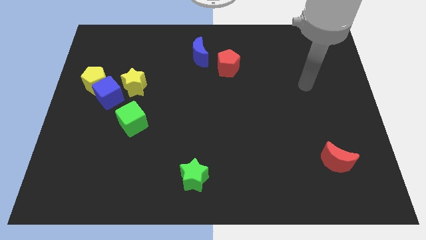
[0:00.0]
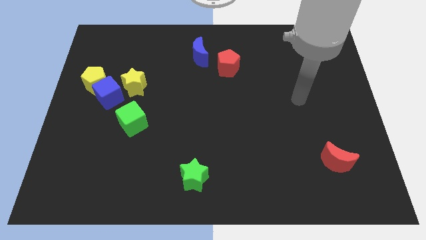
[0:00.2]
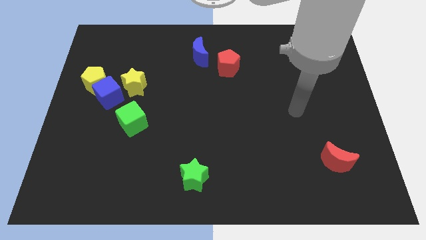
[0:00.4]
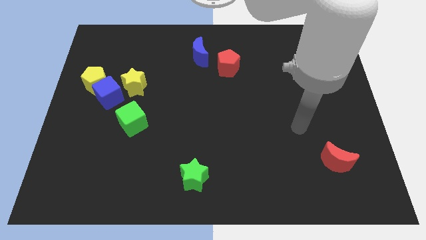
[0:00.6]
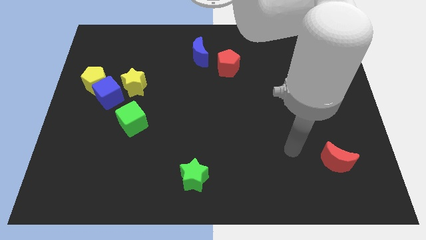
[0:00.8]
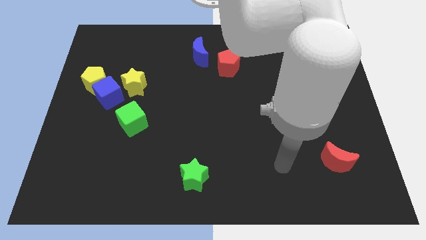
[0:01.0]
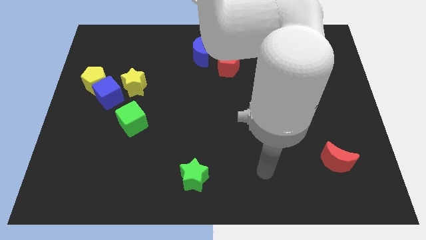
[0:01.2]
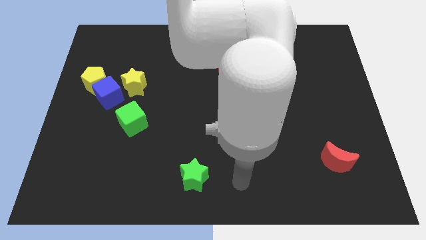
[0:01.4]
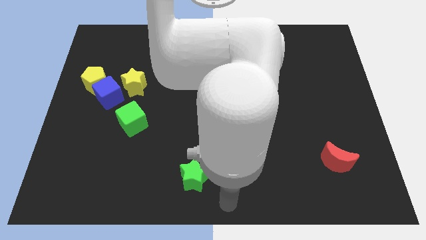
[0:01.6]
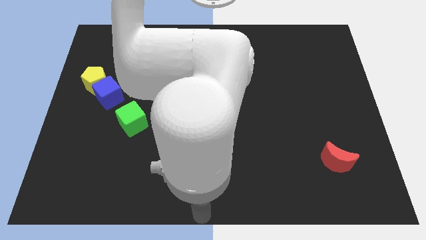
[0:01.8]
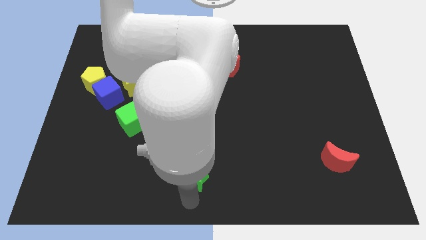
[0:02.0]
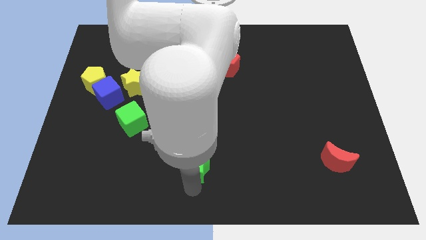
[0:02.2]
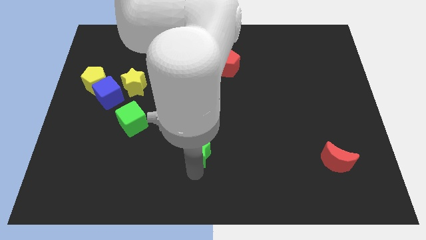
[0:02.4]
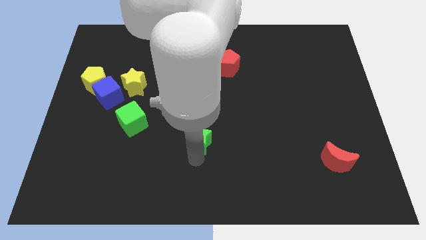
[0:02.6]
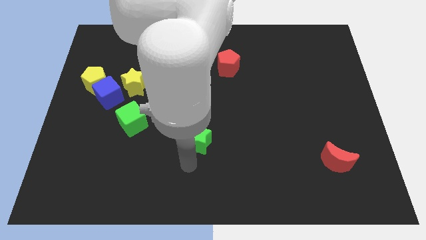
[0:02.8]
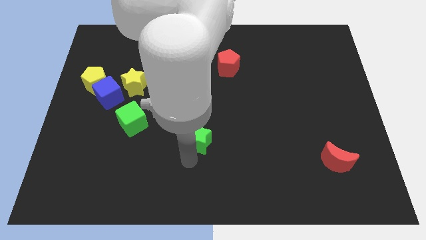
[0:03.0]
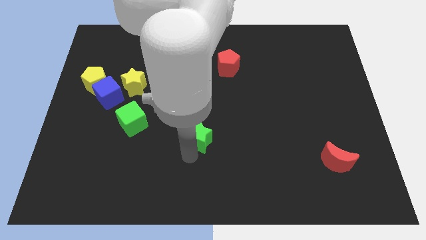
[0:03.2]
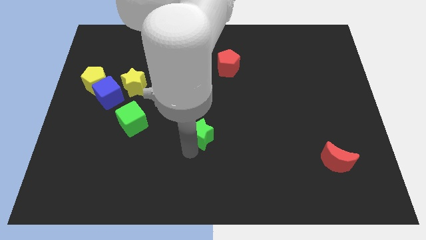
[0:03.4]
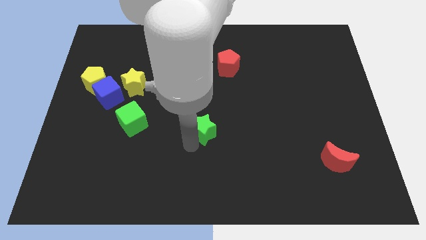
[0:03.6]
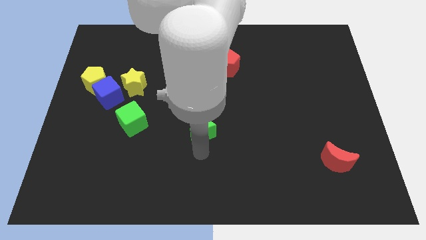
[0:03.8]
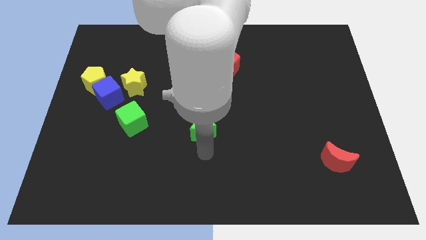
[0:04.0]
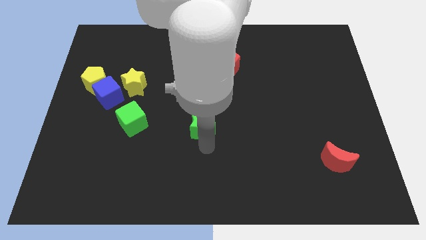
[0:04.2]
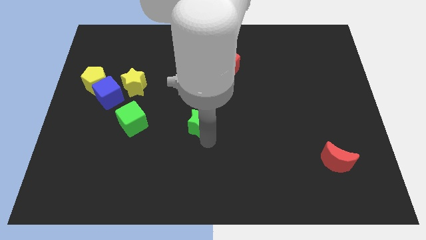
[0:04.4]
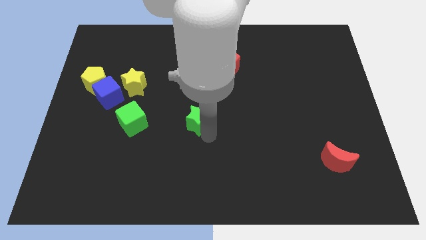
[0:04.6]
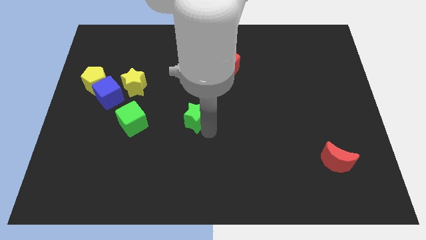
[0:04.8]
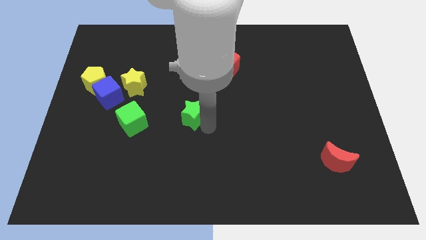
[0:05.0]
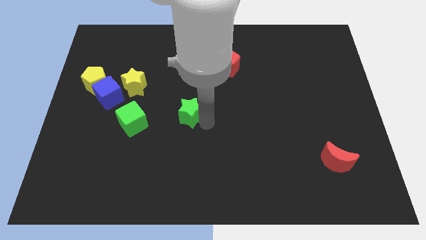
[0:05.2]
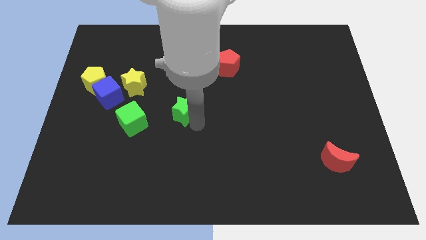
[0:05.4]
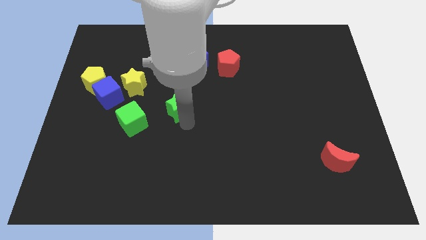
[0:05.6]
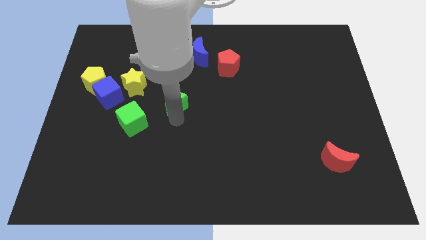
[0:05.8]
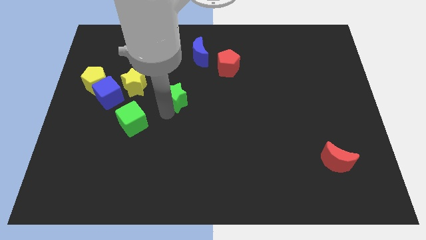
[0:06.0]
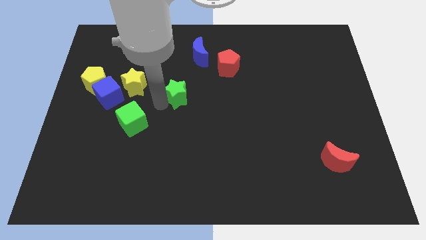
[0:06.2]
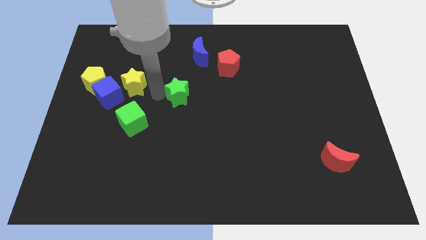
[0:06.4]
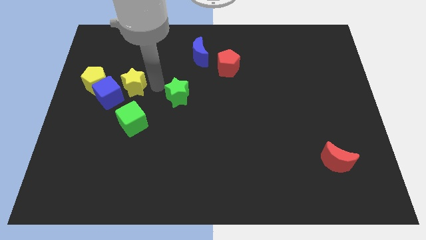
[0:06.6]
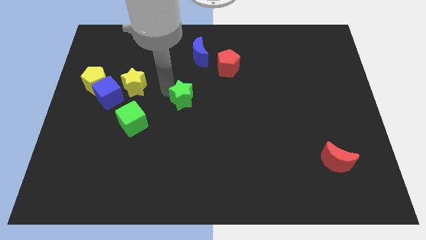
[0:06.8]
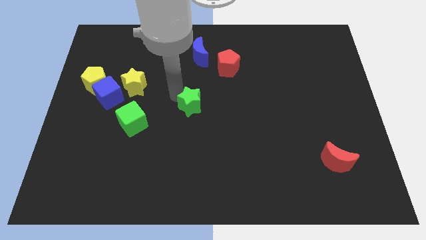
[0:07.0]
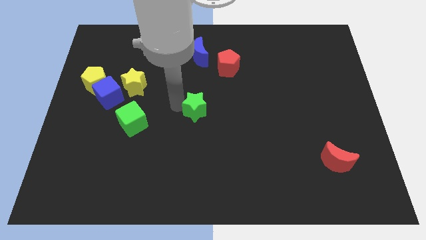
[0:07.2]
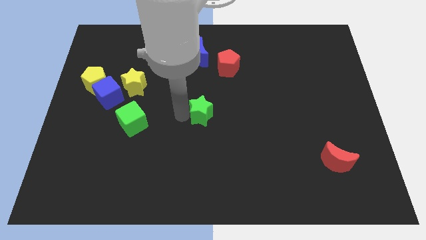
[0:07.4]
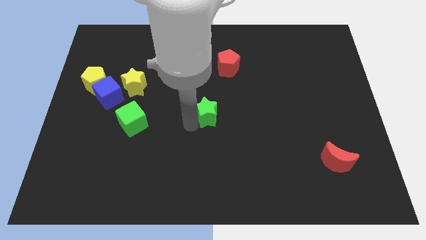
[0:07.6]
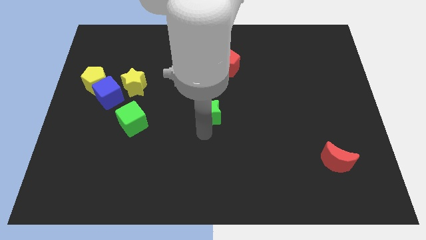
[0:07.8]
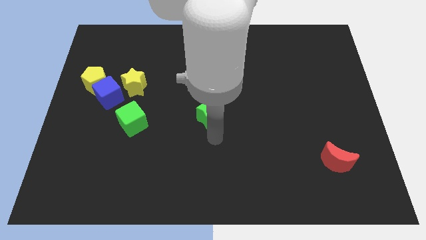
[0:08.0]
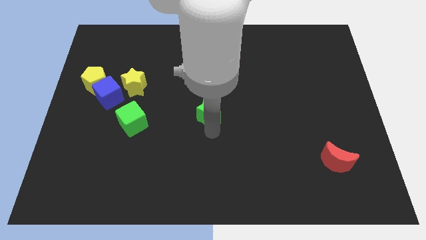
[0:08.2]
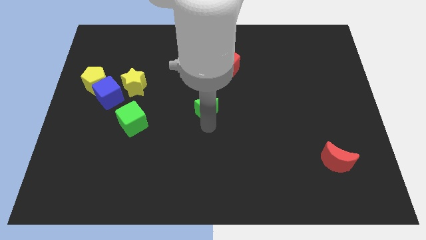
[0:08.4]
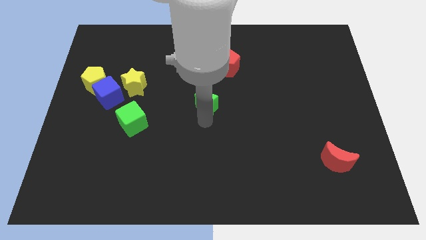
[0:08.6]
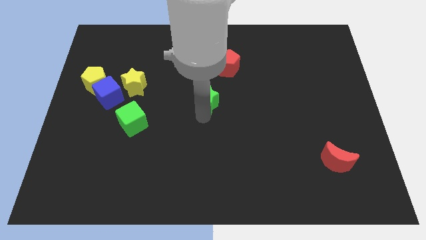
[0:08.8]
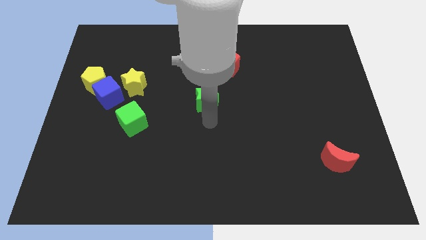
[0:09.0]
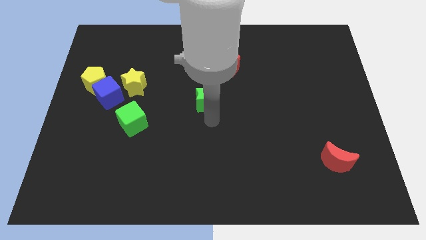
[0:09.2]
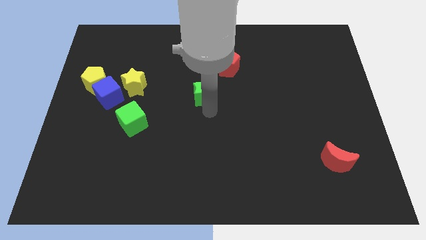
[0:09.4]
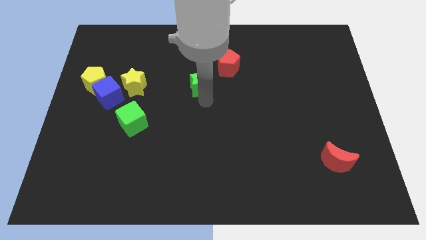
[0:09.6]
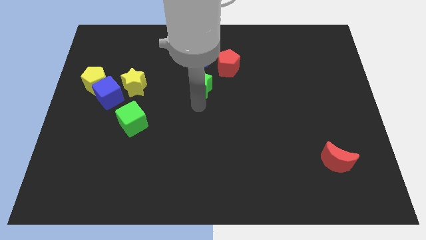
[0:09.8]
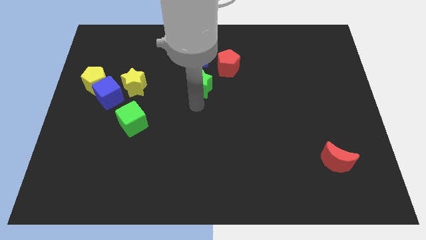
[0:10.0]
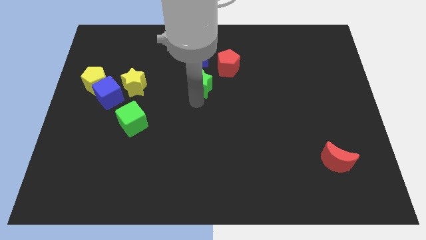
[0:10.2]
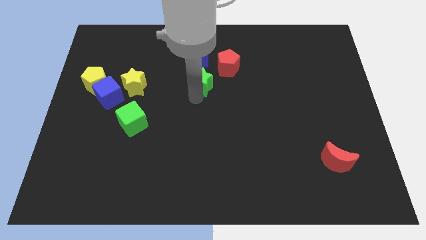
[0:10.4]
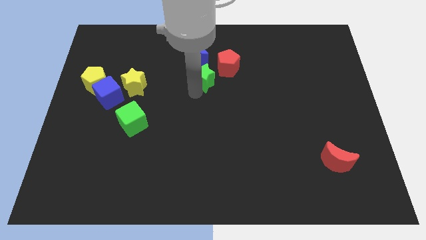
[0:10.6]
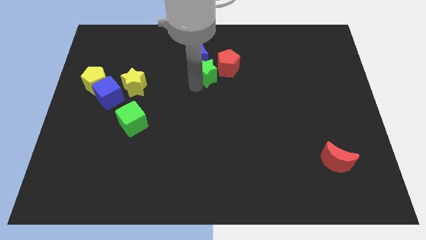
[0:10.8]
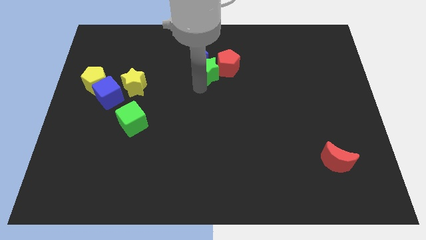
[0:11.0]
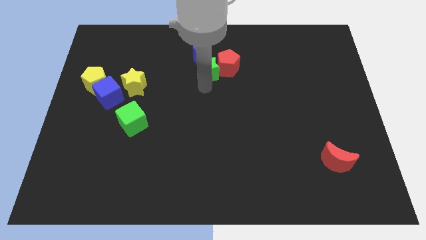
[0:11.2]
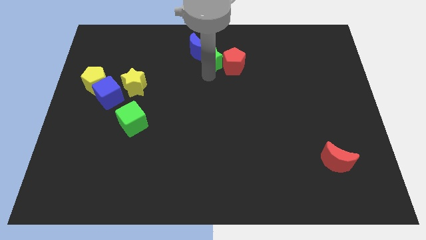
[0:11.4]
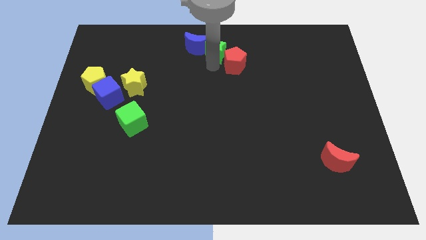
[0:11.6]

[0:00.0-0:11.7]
push the green star to the top

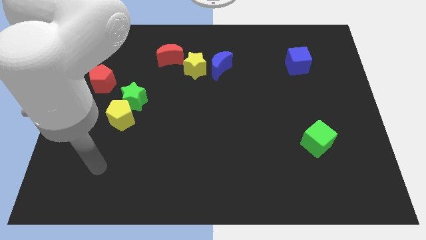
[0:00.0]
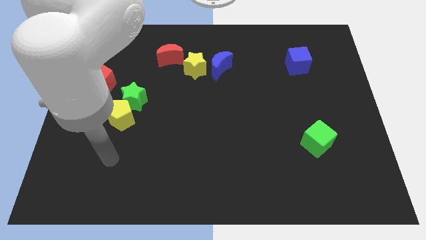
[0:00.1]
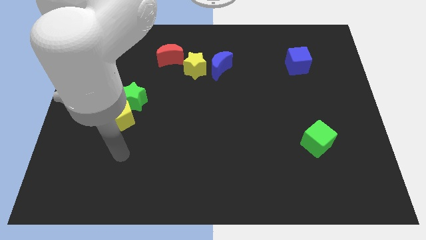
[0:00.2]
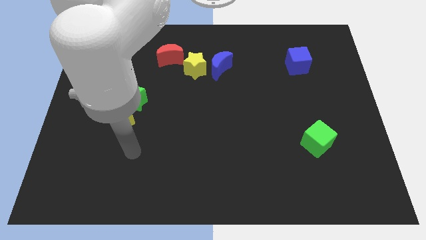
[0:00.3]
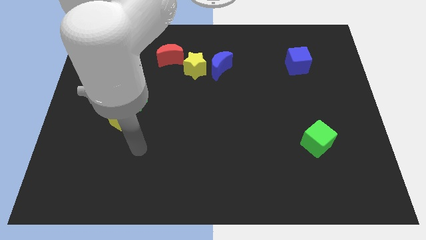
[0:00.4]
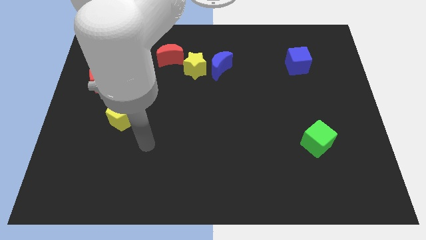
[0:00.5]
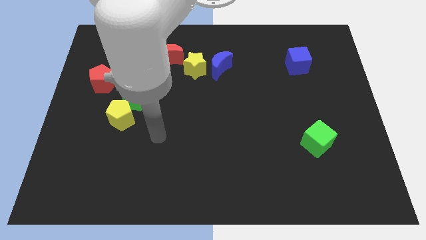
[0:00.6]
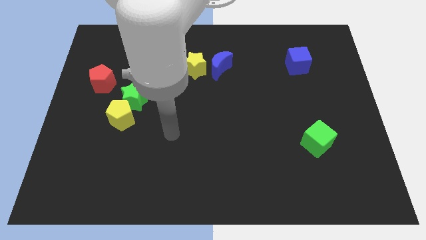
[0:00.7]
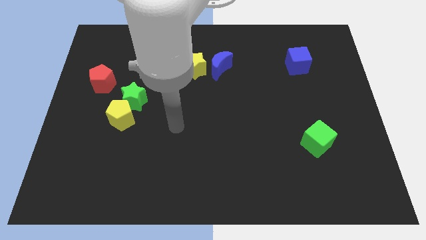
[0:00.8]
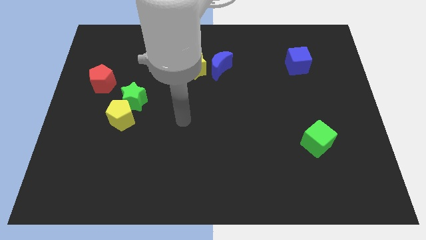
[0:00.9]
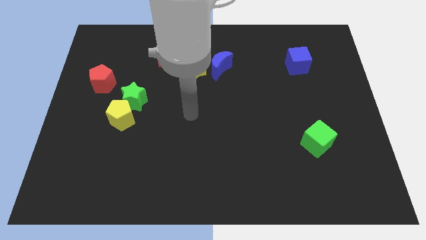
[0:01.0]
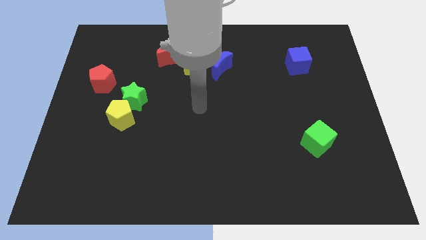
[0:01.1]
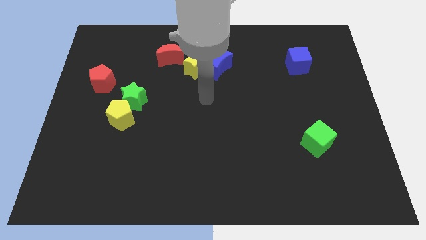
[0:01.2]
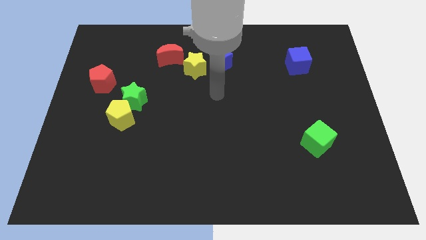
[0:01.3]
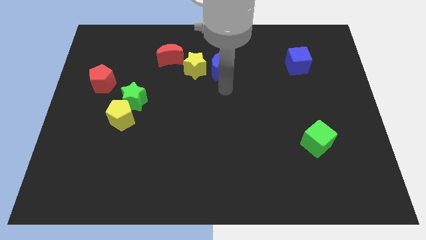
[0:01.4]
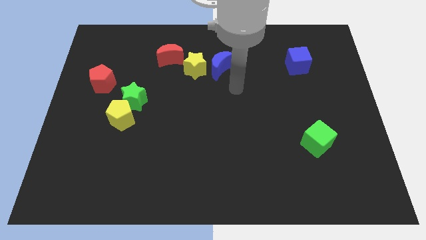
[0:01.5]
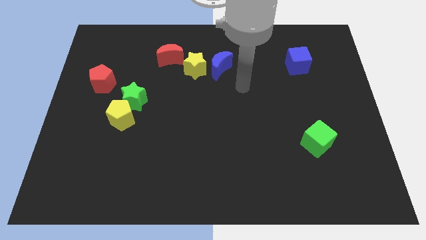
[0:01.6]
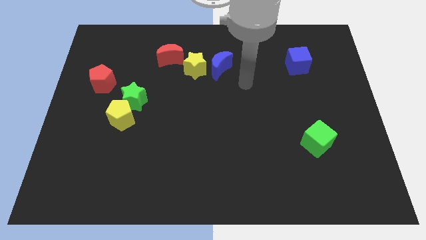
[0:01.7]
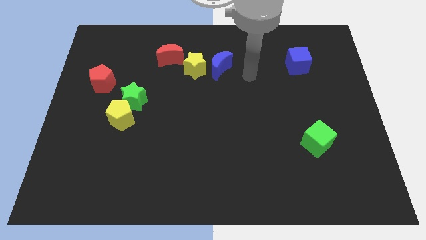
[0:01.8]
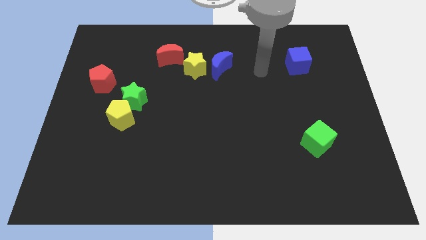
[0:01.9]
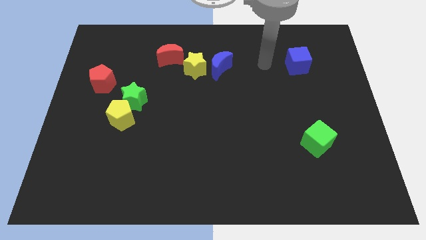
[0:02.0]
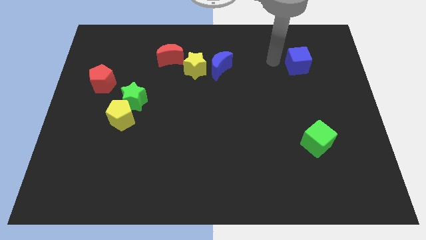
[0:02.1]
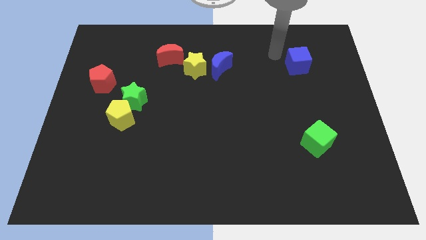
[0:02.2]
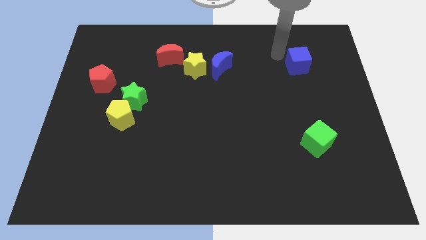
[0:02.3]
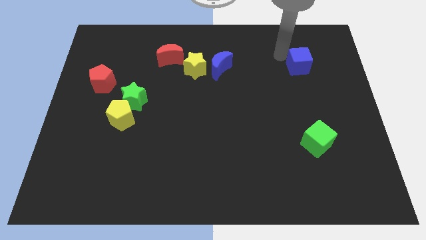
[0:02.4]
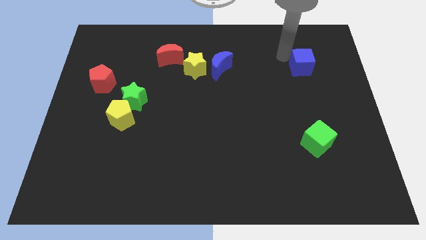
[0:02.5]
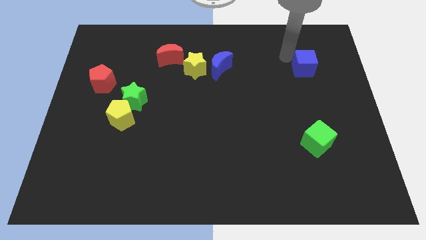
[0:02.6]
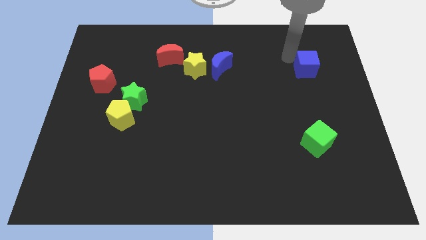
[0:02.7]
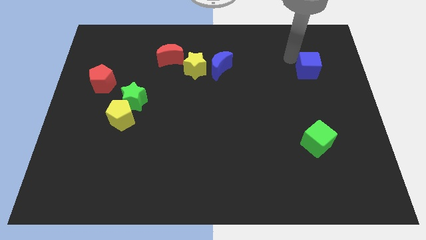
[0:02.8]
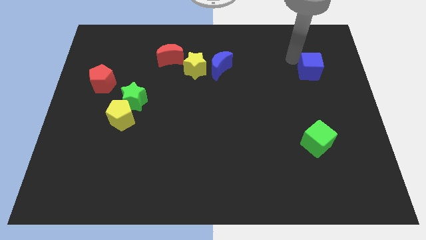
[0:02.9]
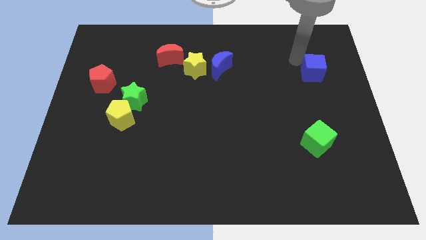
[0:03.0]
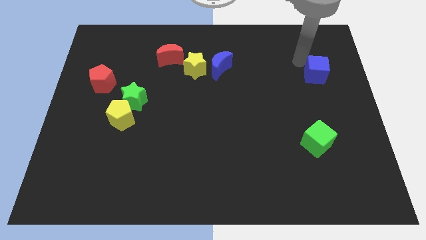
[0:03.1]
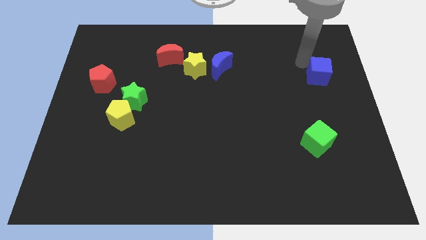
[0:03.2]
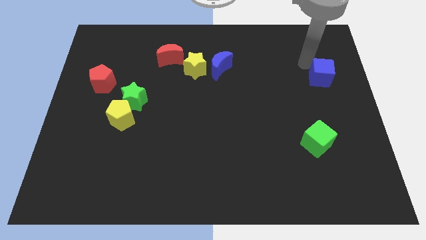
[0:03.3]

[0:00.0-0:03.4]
move the blue cube to the right side
